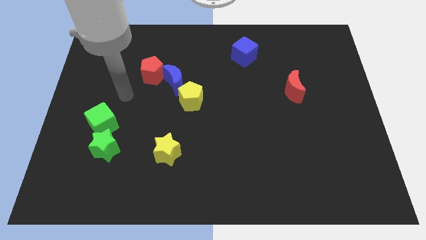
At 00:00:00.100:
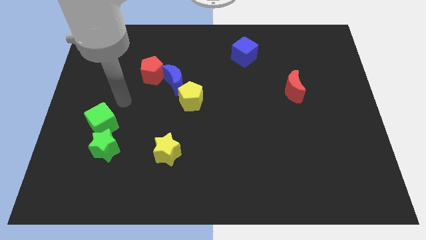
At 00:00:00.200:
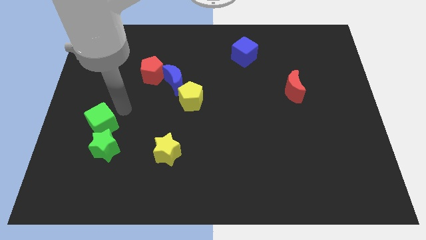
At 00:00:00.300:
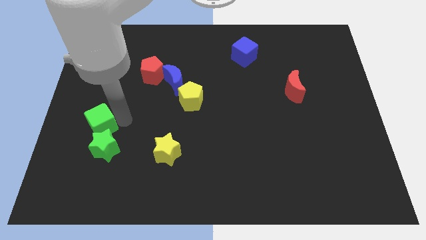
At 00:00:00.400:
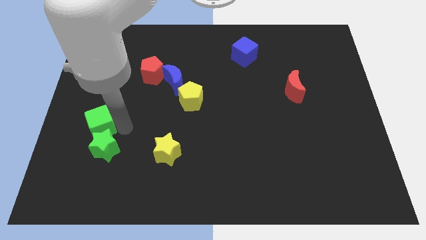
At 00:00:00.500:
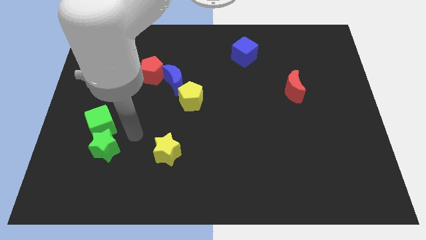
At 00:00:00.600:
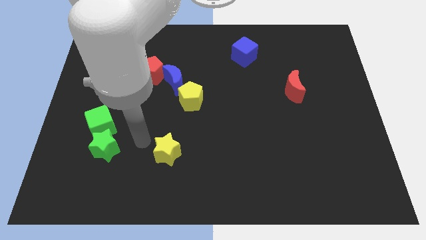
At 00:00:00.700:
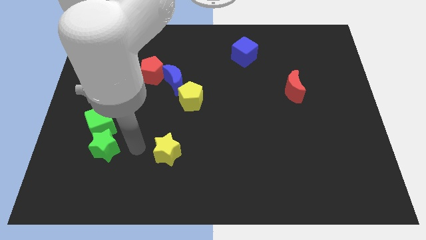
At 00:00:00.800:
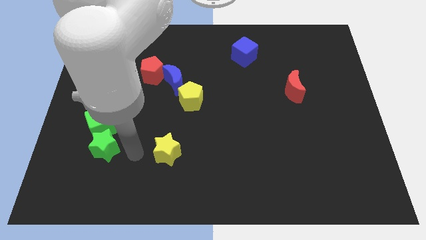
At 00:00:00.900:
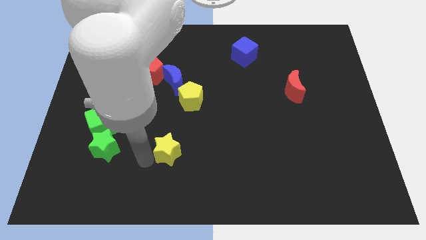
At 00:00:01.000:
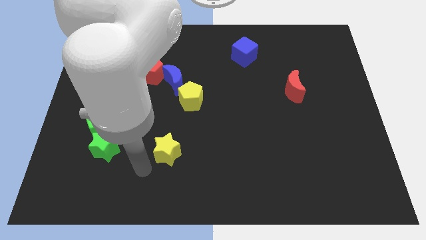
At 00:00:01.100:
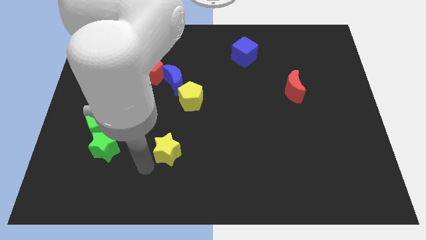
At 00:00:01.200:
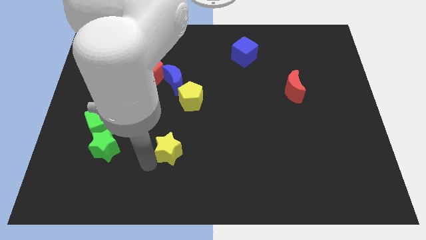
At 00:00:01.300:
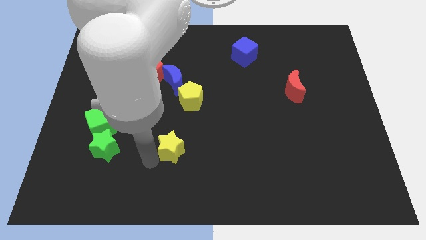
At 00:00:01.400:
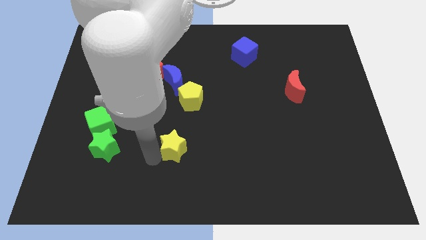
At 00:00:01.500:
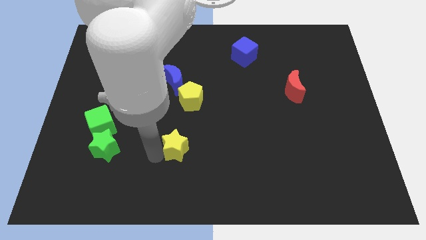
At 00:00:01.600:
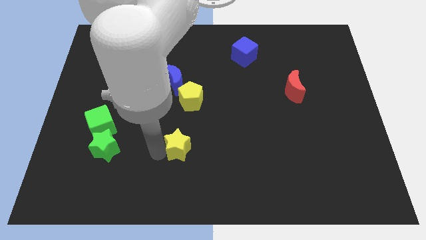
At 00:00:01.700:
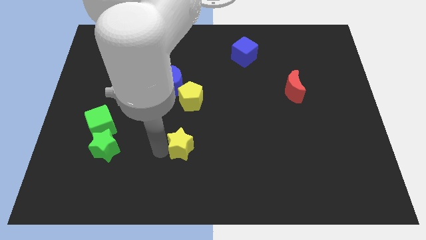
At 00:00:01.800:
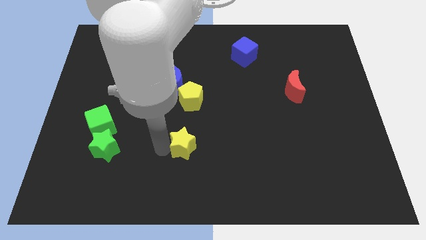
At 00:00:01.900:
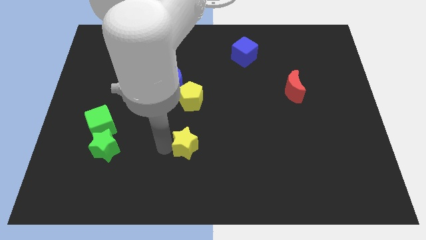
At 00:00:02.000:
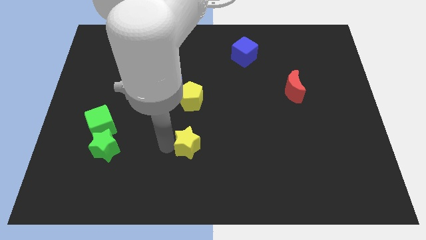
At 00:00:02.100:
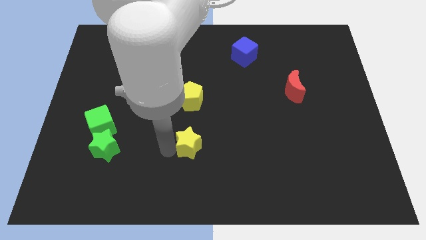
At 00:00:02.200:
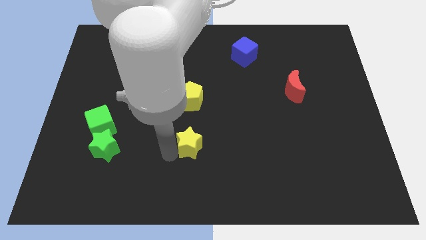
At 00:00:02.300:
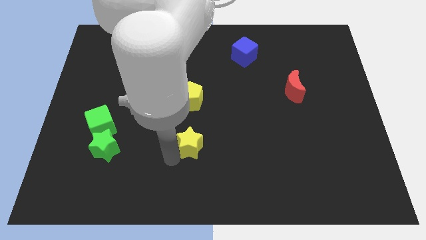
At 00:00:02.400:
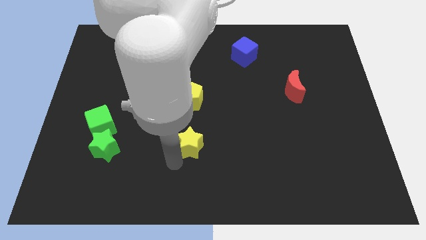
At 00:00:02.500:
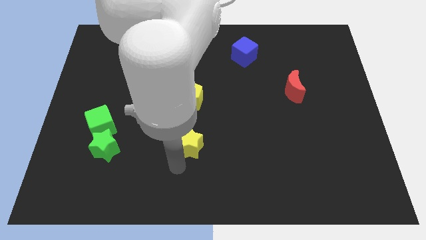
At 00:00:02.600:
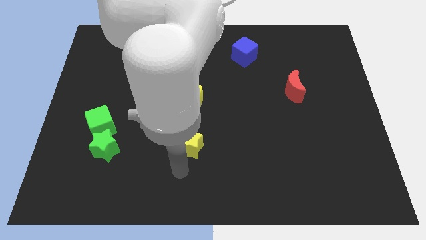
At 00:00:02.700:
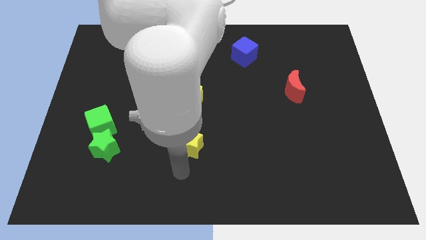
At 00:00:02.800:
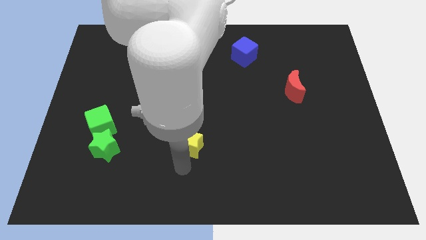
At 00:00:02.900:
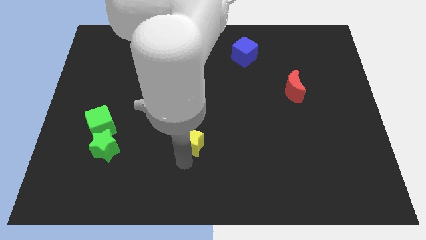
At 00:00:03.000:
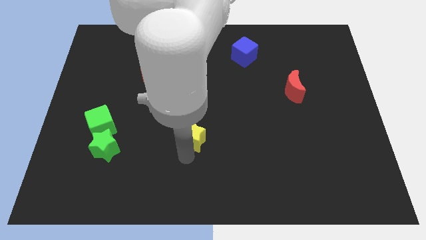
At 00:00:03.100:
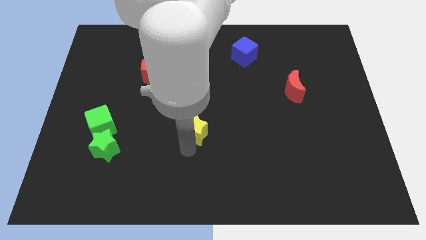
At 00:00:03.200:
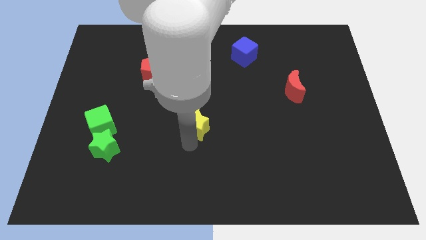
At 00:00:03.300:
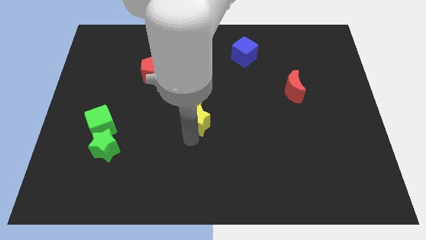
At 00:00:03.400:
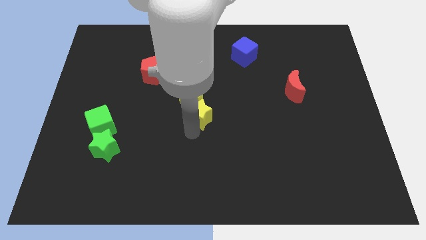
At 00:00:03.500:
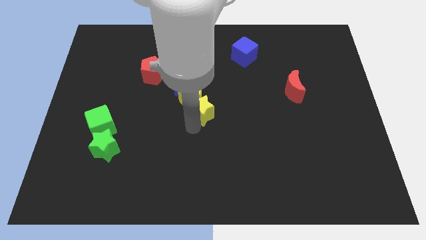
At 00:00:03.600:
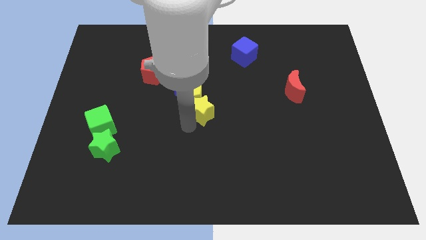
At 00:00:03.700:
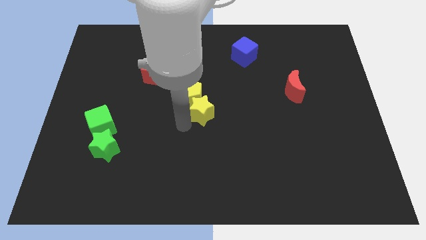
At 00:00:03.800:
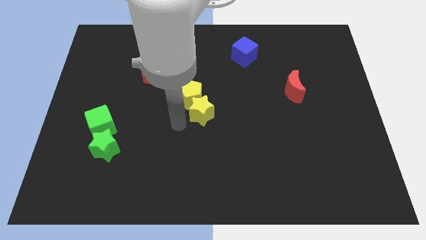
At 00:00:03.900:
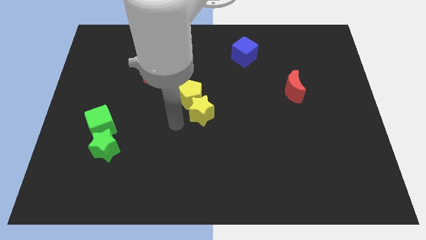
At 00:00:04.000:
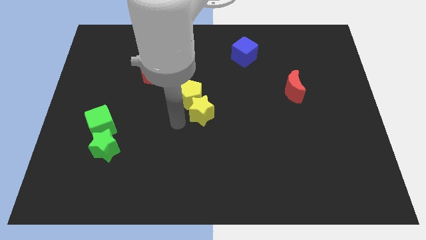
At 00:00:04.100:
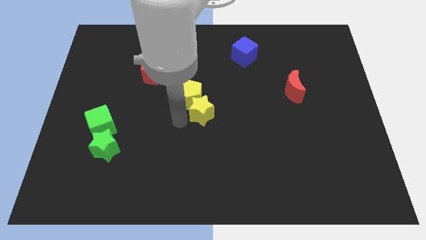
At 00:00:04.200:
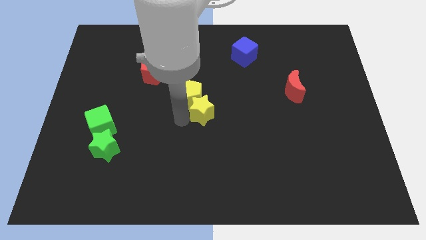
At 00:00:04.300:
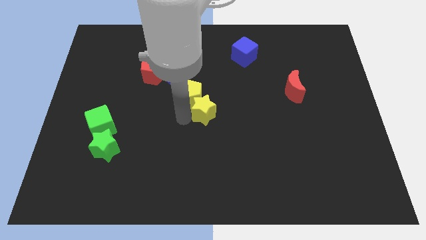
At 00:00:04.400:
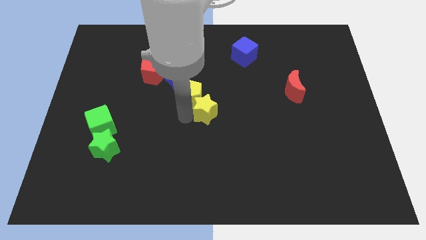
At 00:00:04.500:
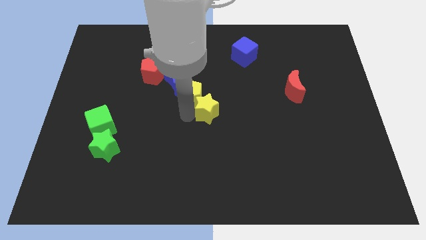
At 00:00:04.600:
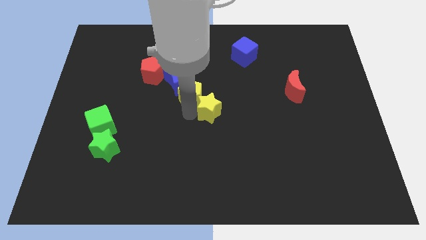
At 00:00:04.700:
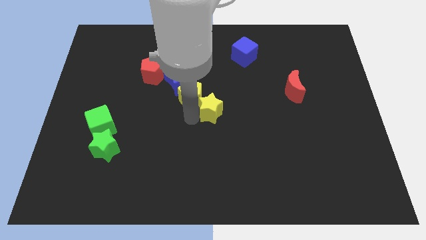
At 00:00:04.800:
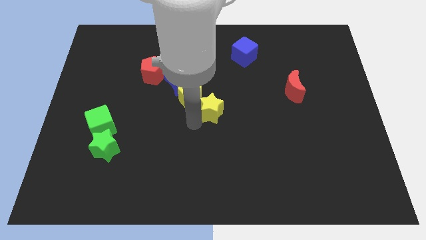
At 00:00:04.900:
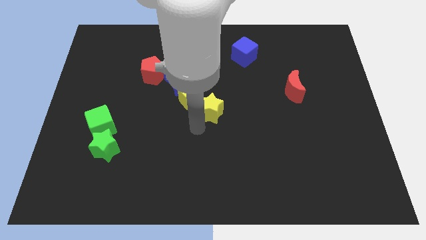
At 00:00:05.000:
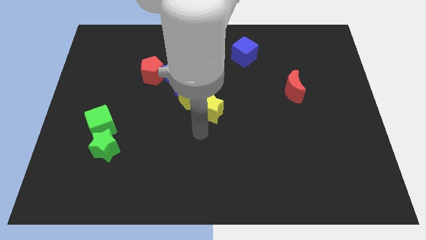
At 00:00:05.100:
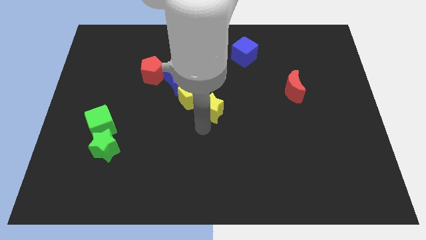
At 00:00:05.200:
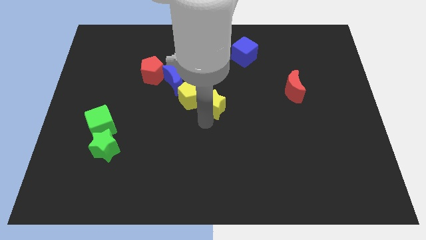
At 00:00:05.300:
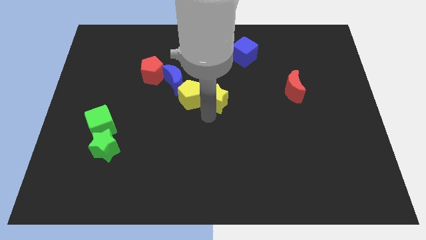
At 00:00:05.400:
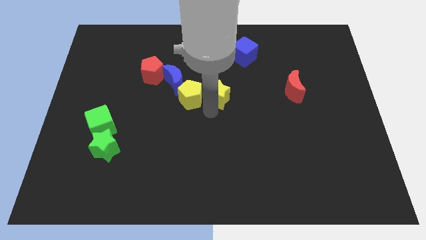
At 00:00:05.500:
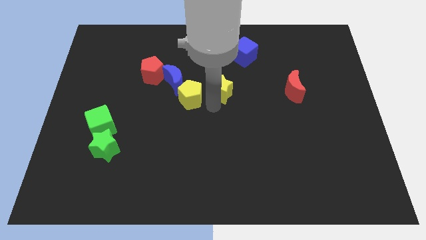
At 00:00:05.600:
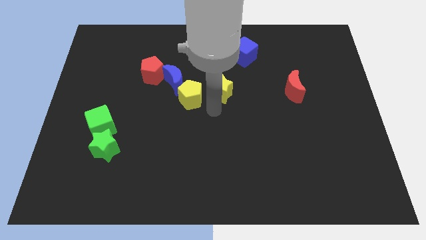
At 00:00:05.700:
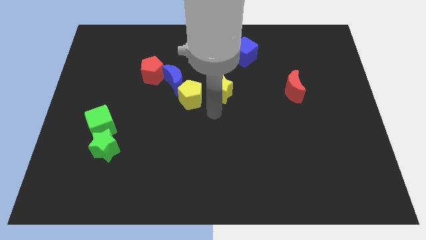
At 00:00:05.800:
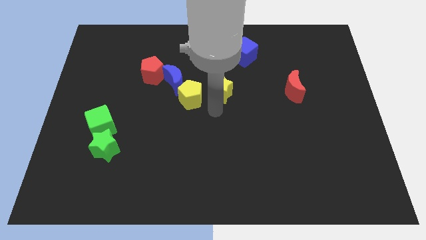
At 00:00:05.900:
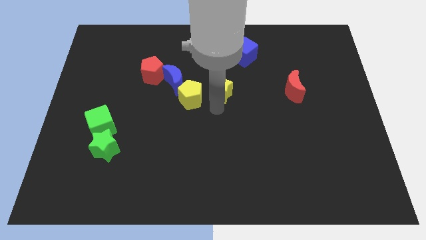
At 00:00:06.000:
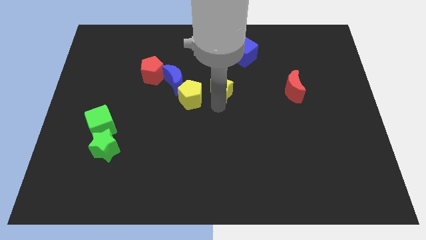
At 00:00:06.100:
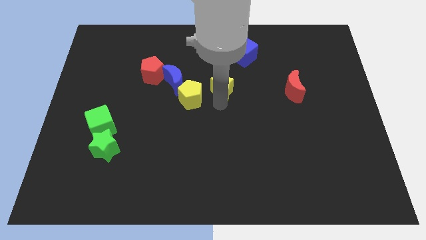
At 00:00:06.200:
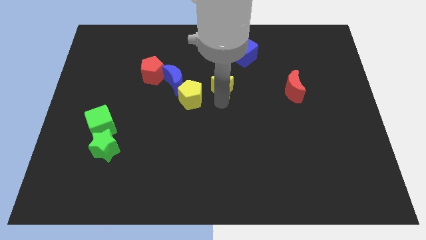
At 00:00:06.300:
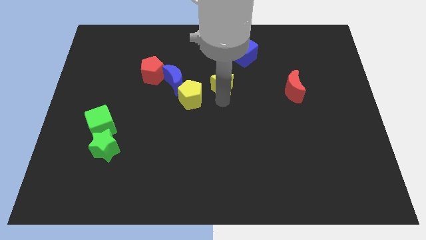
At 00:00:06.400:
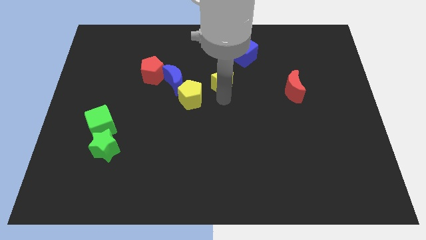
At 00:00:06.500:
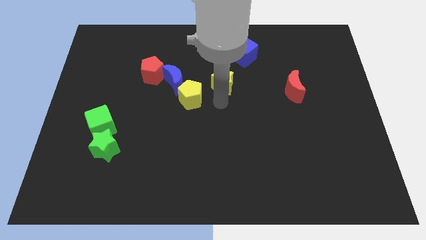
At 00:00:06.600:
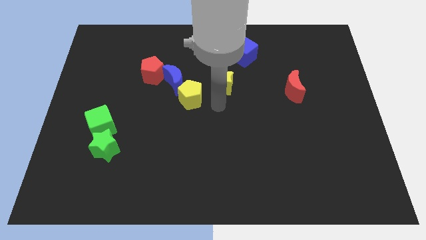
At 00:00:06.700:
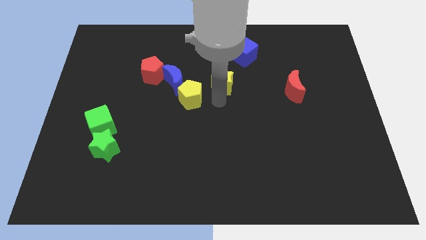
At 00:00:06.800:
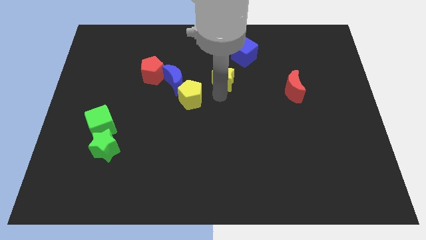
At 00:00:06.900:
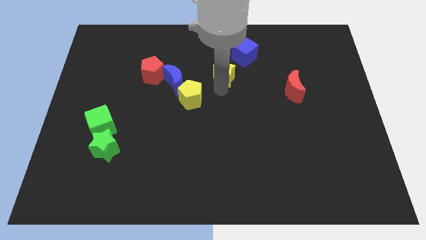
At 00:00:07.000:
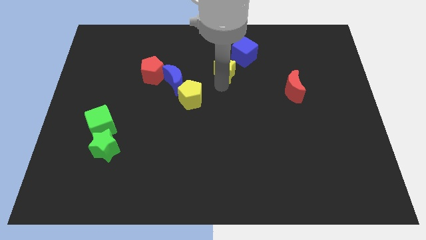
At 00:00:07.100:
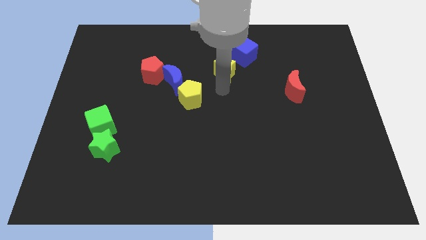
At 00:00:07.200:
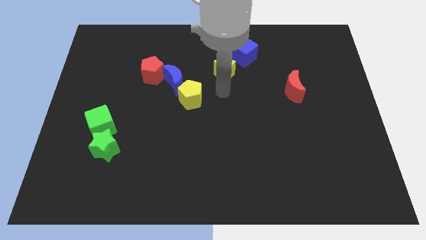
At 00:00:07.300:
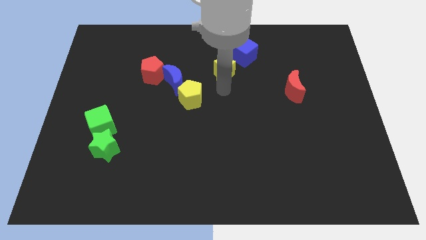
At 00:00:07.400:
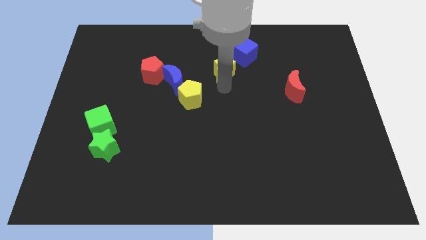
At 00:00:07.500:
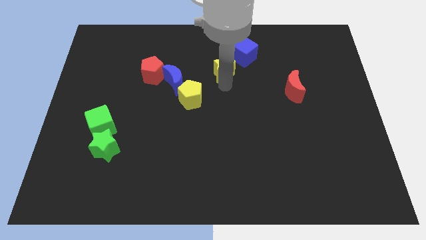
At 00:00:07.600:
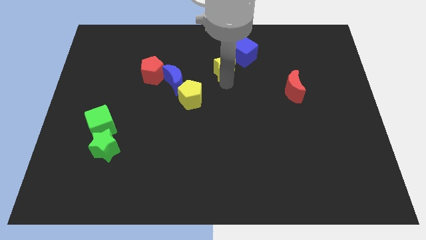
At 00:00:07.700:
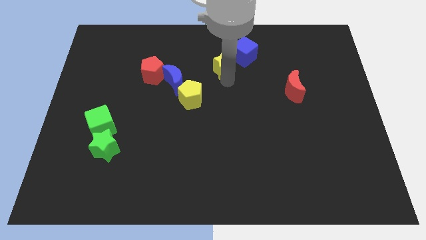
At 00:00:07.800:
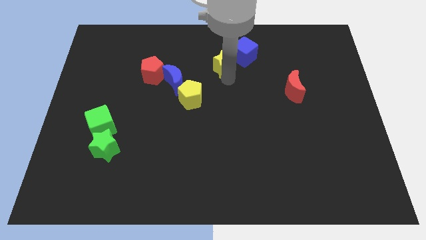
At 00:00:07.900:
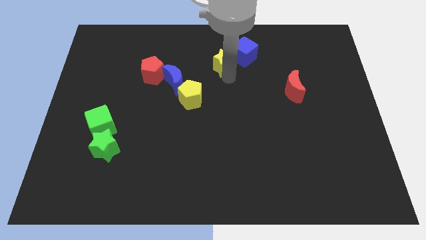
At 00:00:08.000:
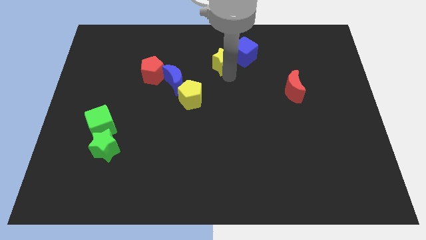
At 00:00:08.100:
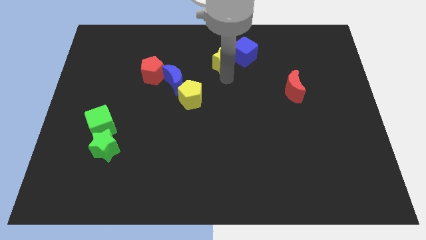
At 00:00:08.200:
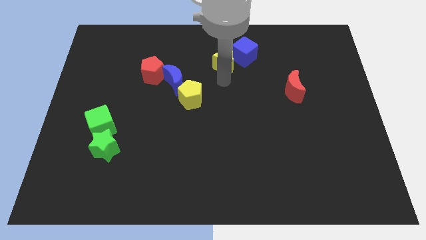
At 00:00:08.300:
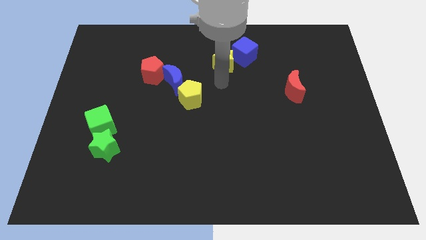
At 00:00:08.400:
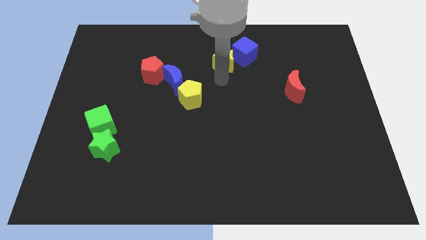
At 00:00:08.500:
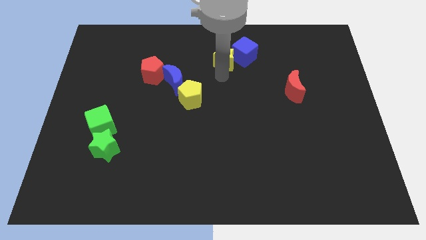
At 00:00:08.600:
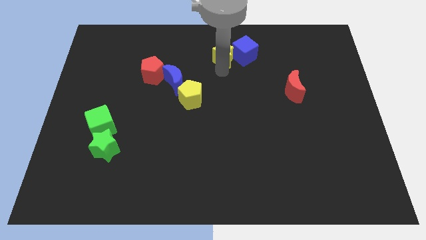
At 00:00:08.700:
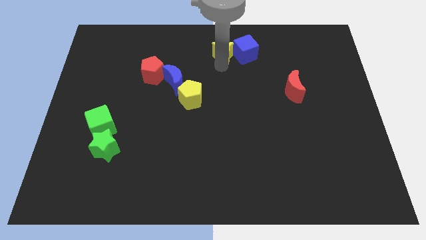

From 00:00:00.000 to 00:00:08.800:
slide the yellow star to the top side
